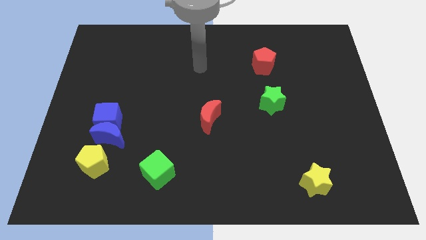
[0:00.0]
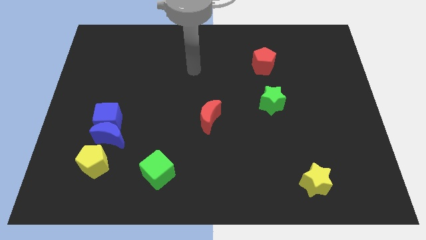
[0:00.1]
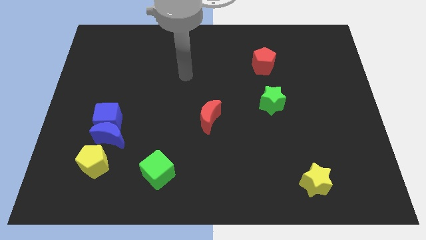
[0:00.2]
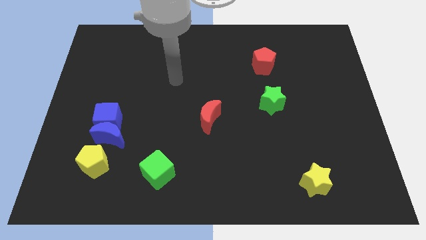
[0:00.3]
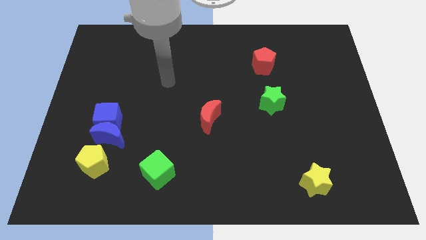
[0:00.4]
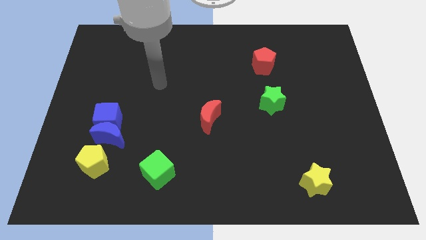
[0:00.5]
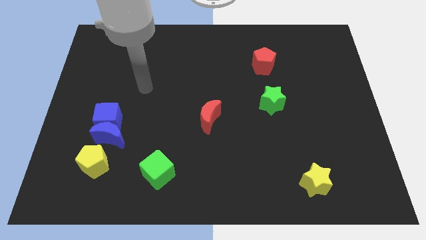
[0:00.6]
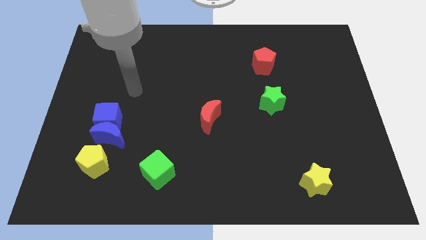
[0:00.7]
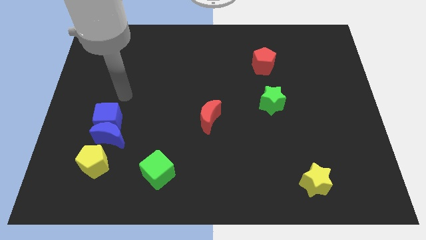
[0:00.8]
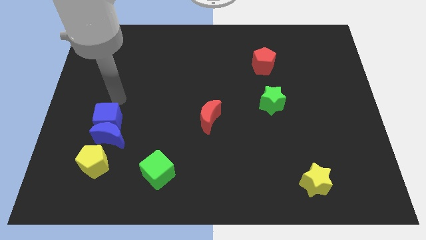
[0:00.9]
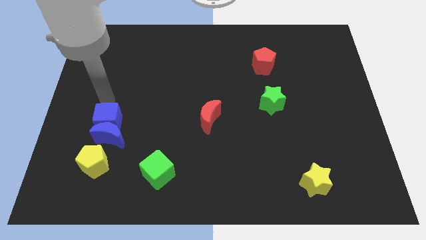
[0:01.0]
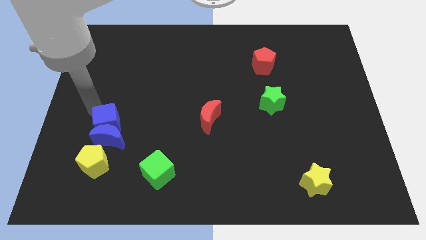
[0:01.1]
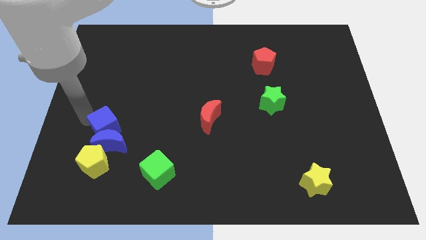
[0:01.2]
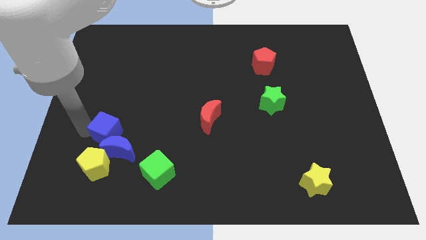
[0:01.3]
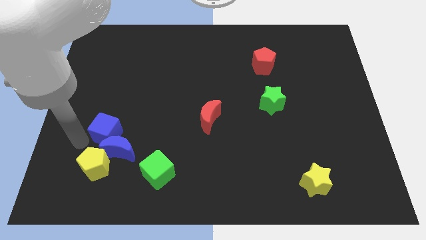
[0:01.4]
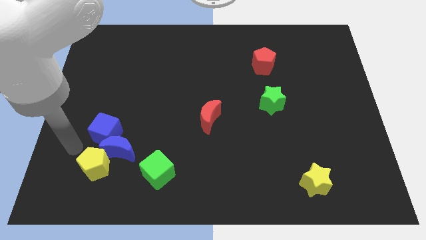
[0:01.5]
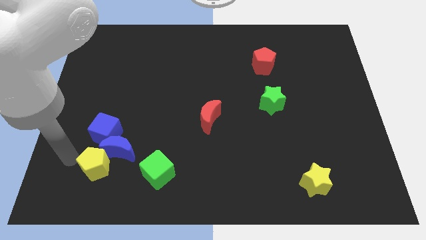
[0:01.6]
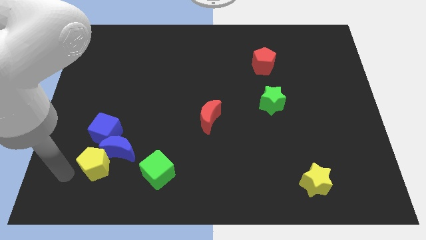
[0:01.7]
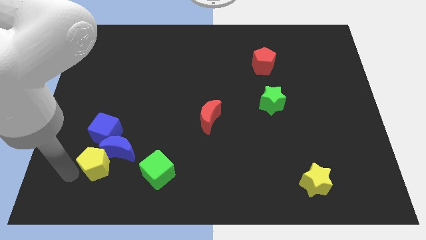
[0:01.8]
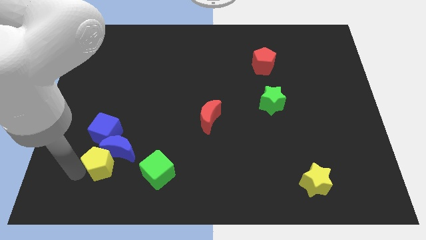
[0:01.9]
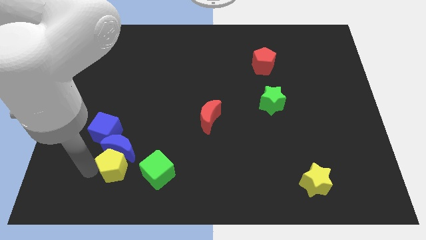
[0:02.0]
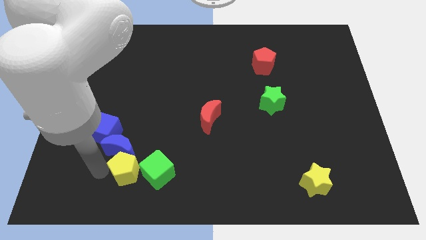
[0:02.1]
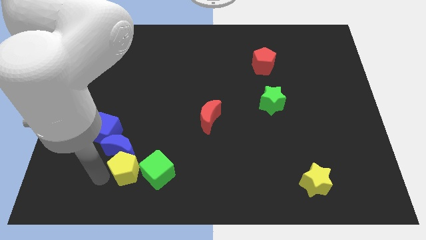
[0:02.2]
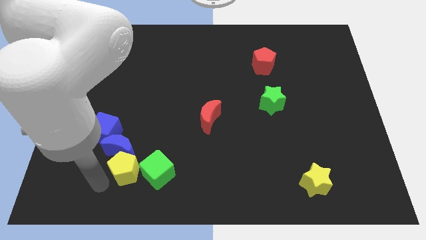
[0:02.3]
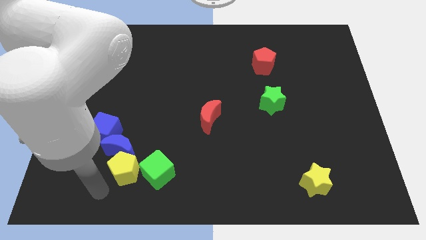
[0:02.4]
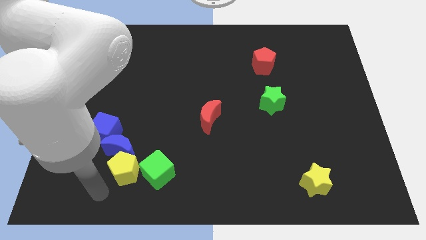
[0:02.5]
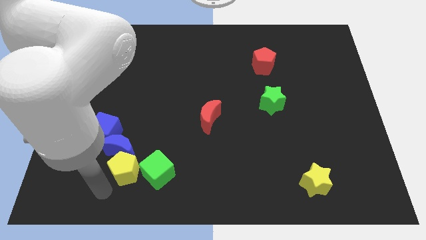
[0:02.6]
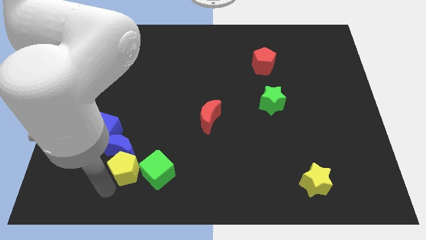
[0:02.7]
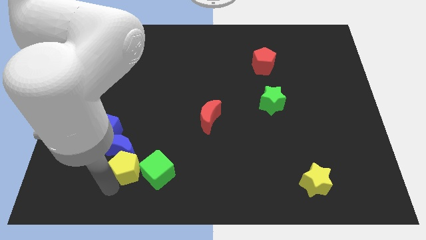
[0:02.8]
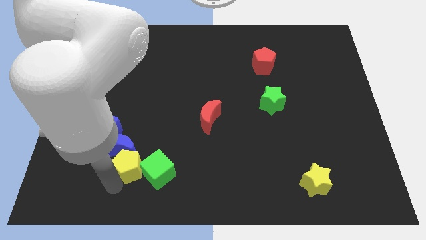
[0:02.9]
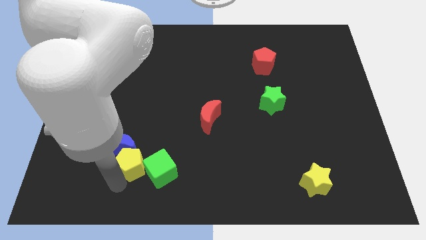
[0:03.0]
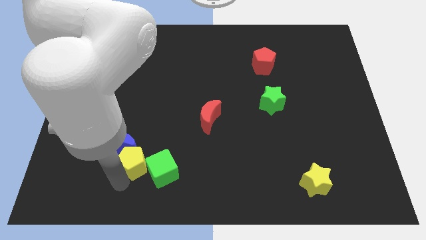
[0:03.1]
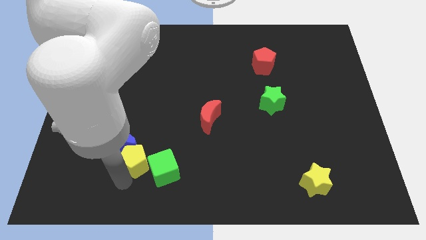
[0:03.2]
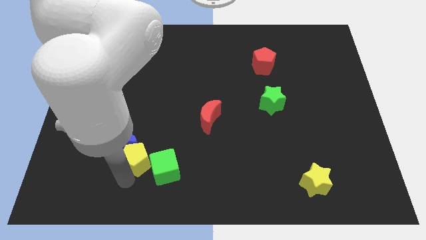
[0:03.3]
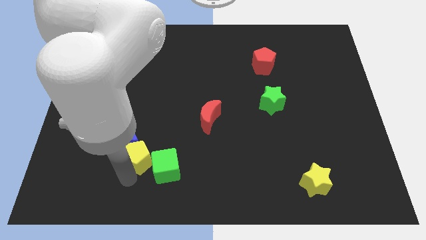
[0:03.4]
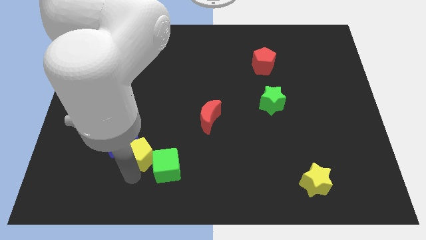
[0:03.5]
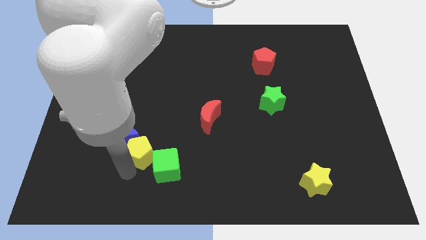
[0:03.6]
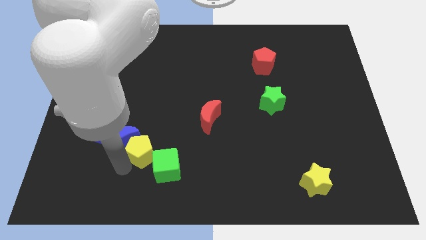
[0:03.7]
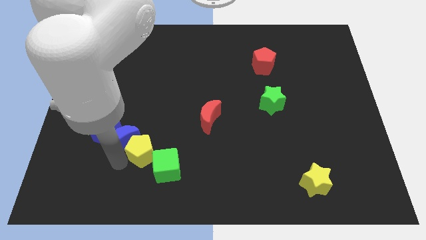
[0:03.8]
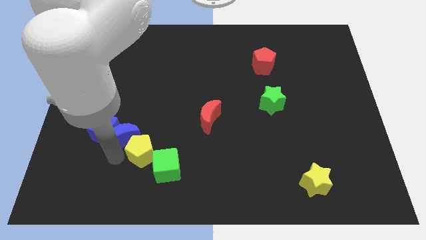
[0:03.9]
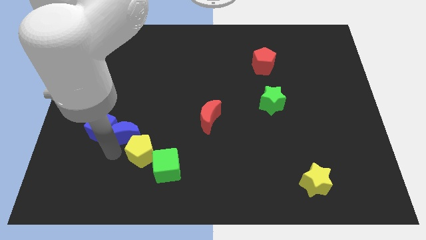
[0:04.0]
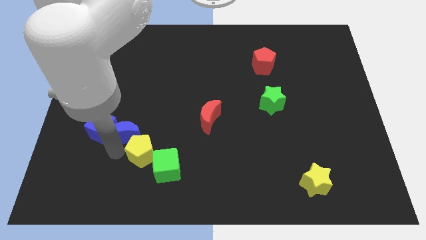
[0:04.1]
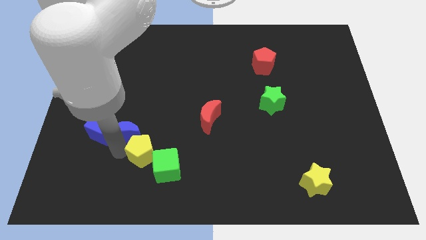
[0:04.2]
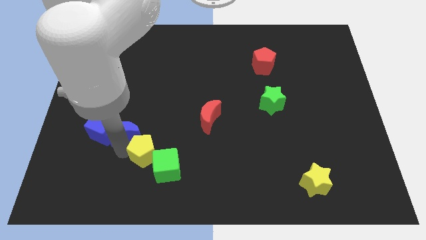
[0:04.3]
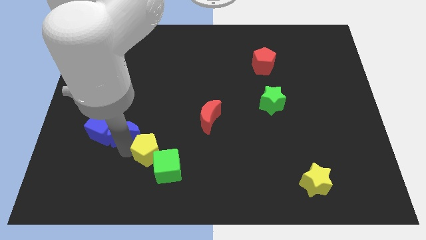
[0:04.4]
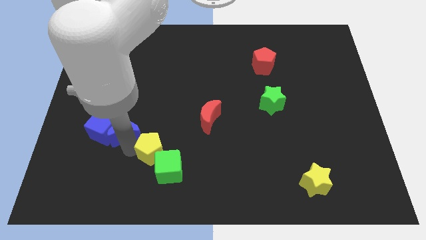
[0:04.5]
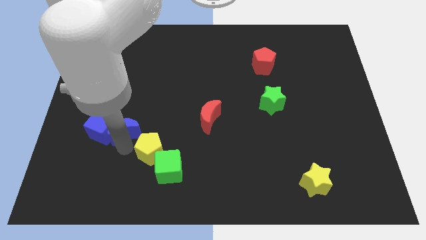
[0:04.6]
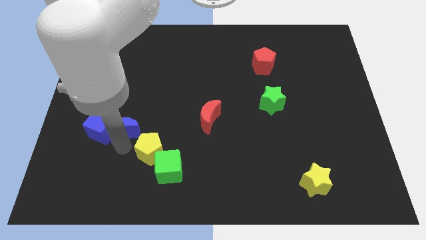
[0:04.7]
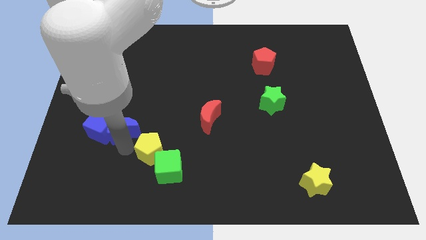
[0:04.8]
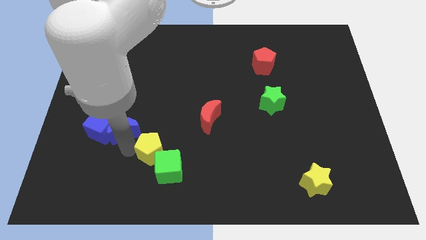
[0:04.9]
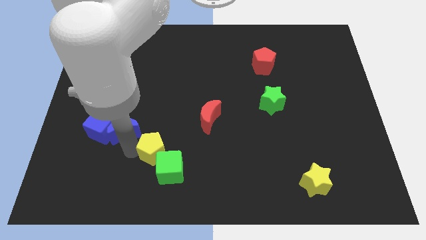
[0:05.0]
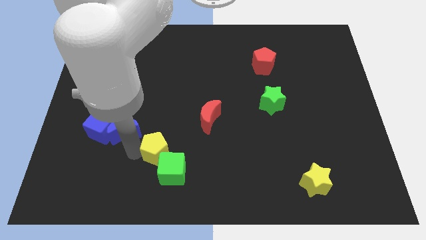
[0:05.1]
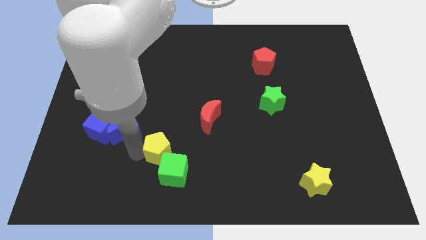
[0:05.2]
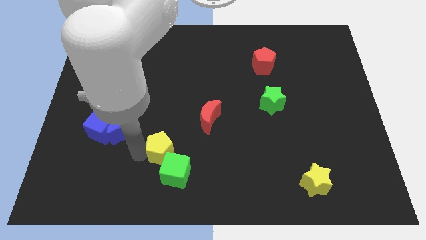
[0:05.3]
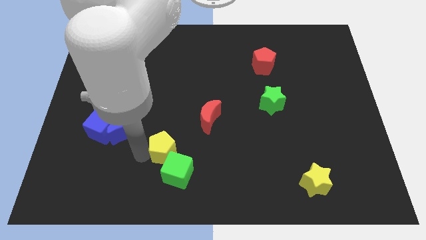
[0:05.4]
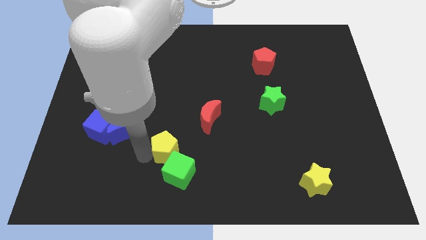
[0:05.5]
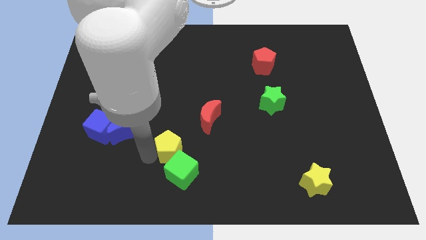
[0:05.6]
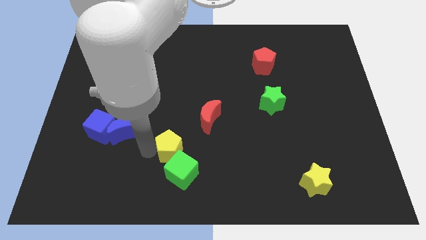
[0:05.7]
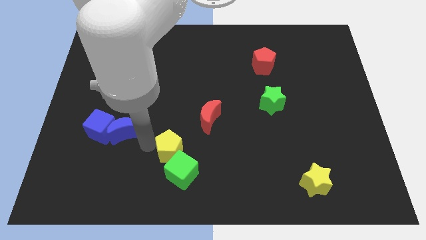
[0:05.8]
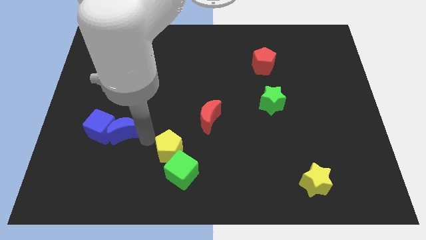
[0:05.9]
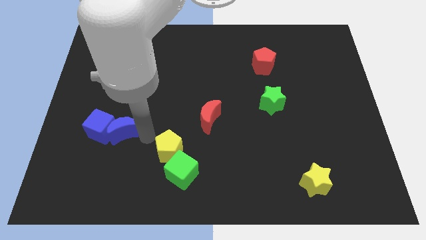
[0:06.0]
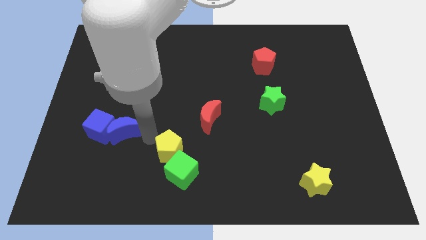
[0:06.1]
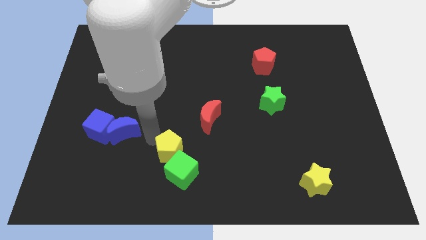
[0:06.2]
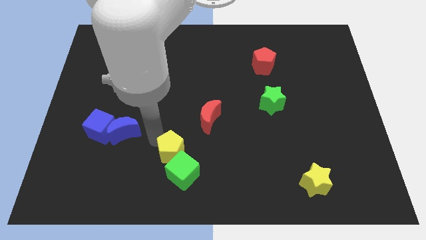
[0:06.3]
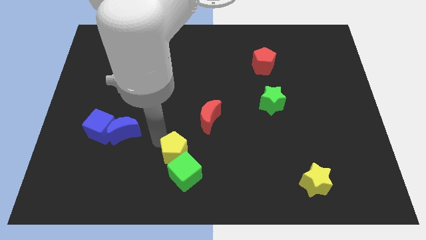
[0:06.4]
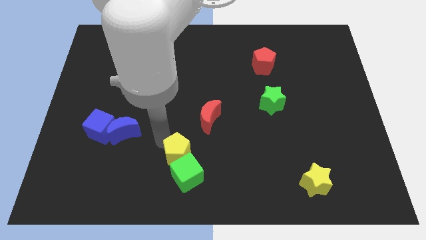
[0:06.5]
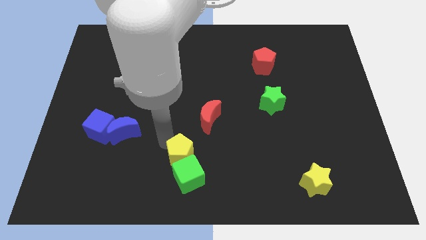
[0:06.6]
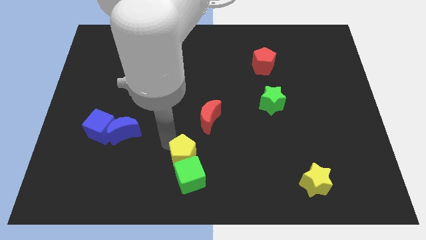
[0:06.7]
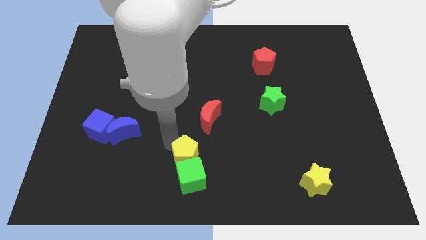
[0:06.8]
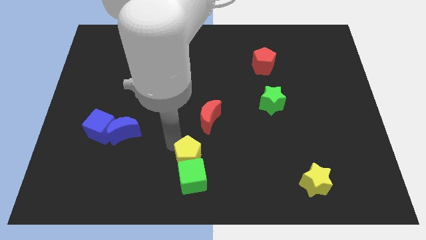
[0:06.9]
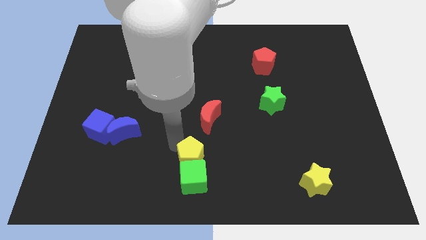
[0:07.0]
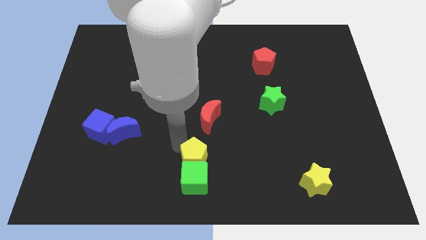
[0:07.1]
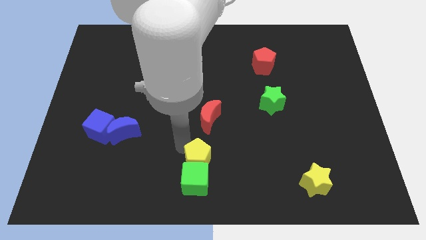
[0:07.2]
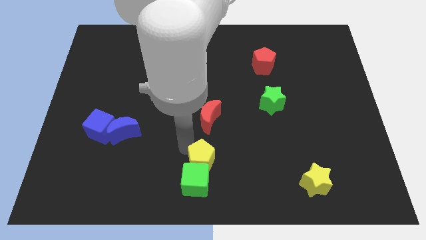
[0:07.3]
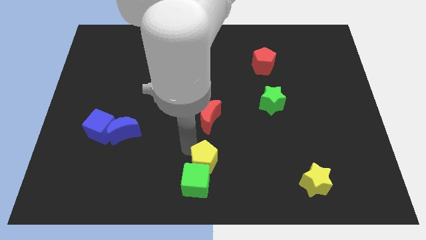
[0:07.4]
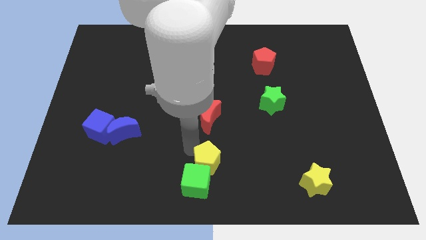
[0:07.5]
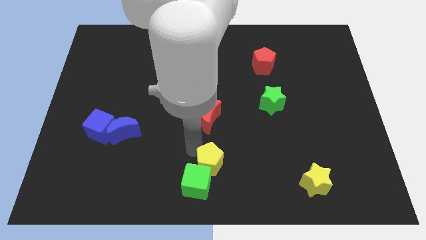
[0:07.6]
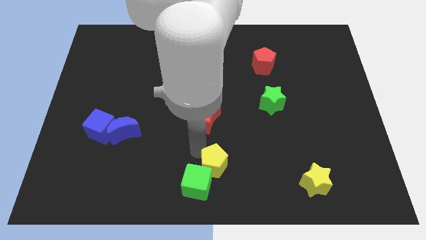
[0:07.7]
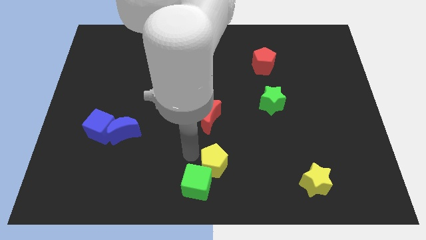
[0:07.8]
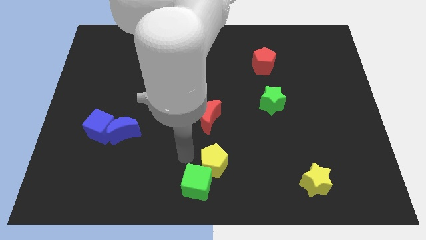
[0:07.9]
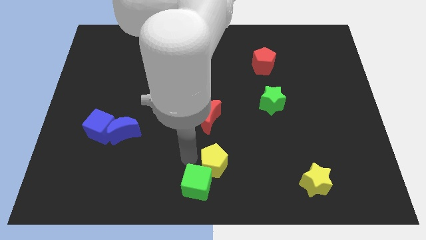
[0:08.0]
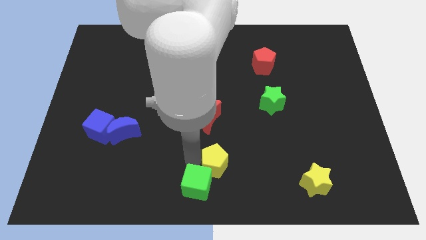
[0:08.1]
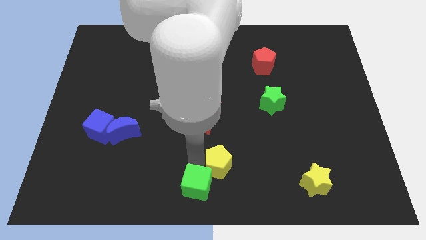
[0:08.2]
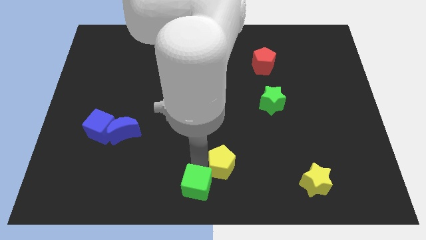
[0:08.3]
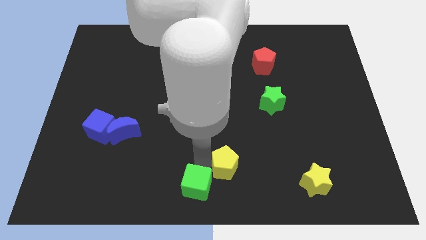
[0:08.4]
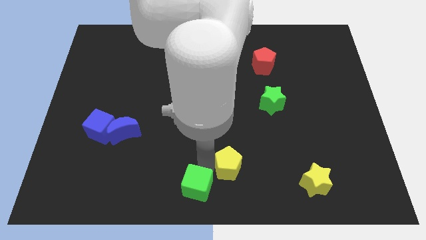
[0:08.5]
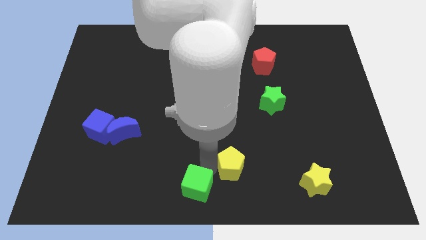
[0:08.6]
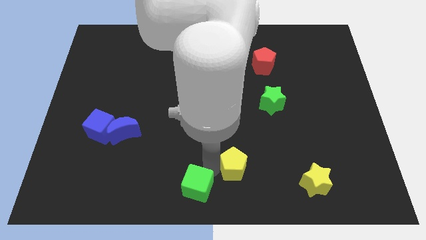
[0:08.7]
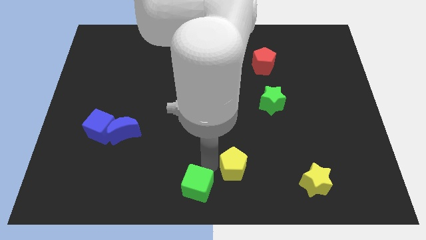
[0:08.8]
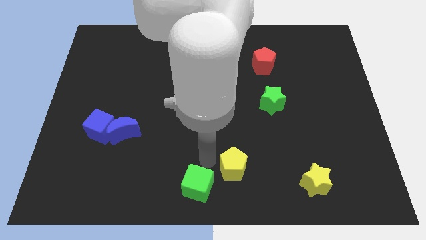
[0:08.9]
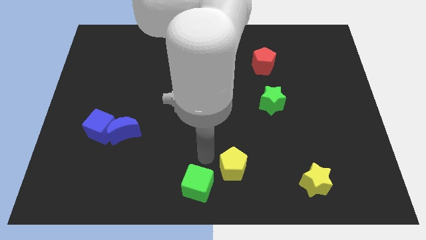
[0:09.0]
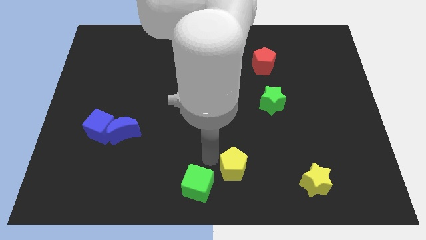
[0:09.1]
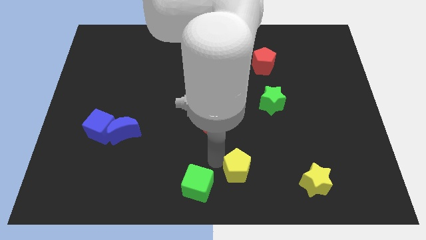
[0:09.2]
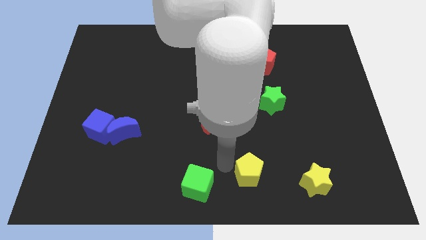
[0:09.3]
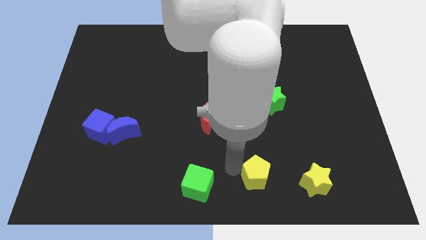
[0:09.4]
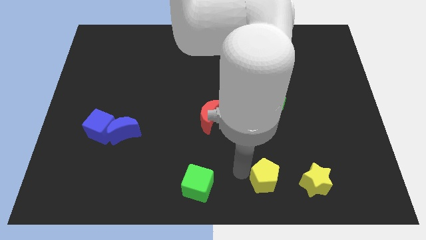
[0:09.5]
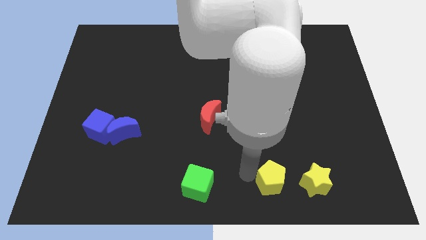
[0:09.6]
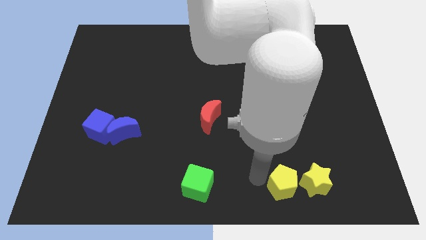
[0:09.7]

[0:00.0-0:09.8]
put the yellow pentagon close to the yellow star
